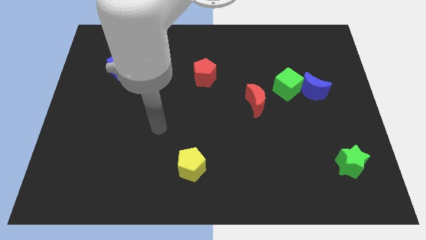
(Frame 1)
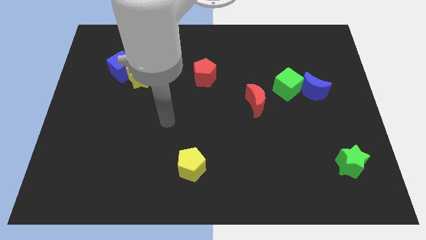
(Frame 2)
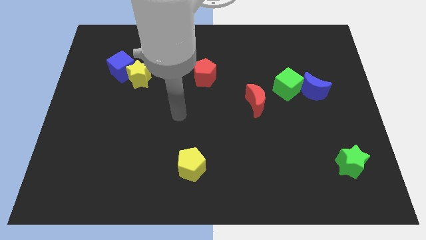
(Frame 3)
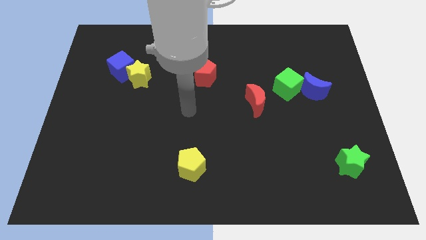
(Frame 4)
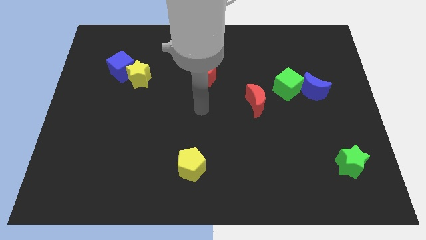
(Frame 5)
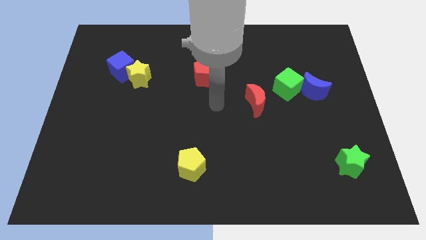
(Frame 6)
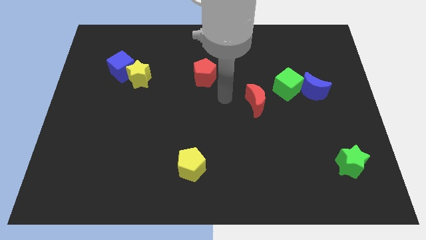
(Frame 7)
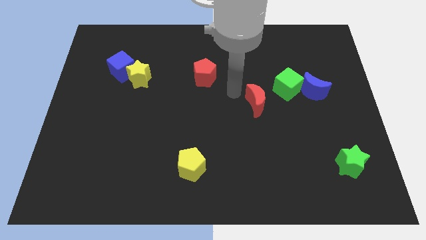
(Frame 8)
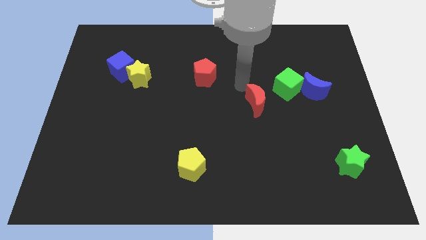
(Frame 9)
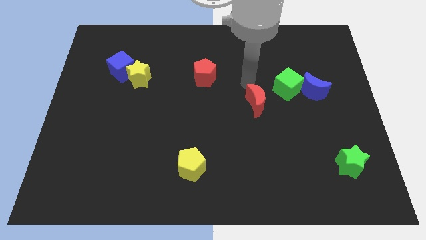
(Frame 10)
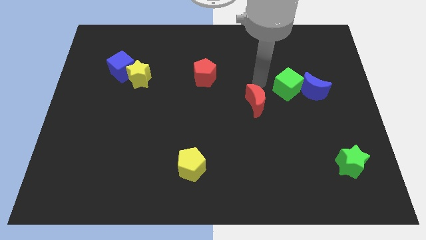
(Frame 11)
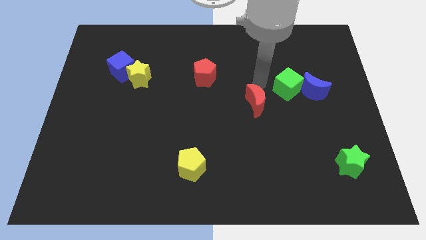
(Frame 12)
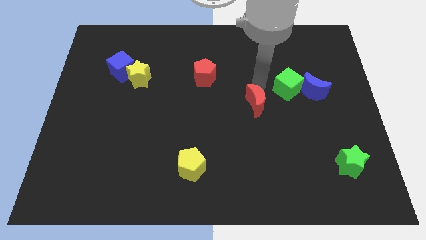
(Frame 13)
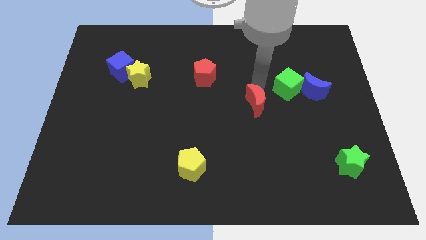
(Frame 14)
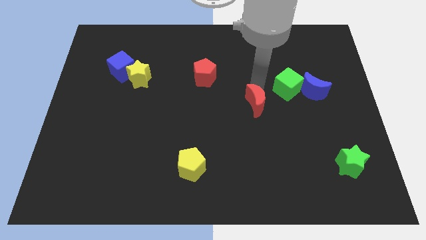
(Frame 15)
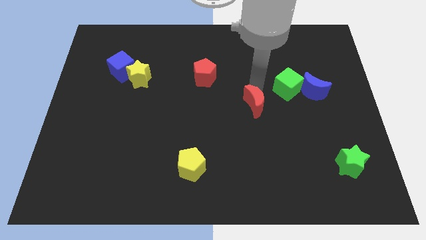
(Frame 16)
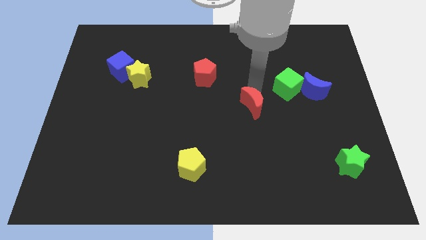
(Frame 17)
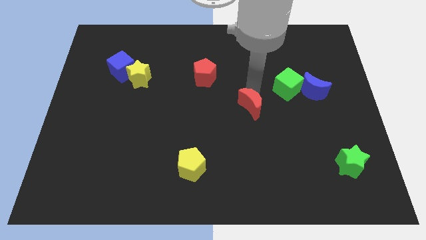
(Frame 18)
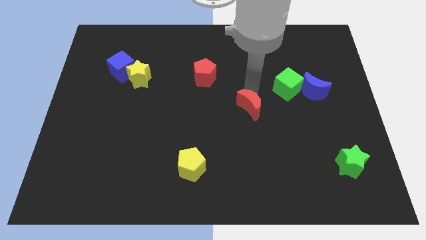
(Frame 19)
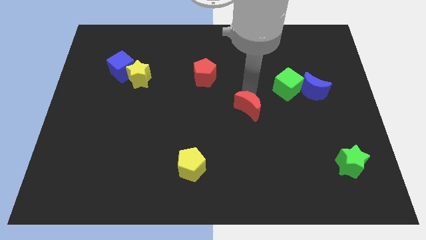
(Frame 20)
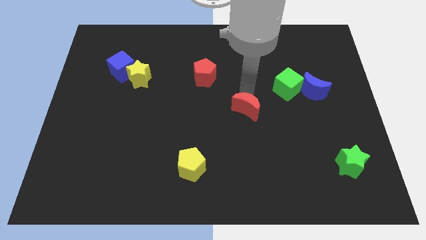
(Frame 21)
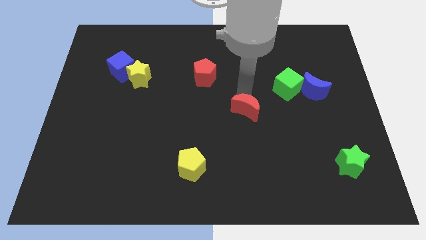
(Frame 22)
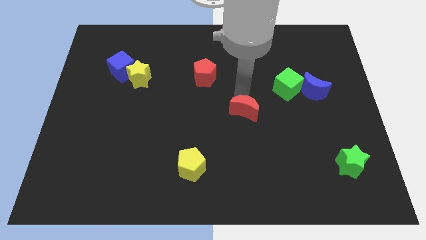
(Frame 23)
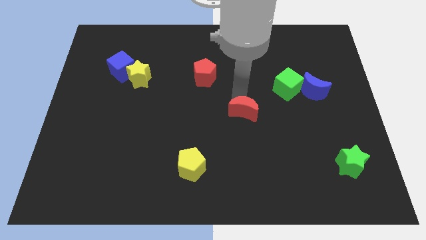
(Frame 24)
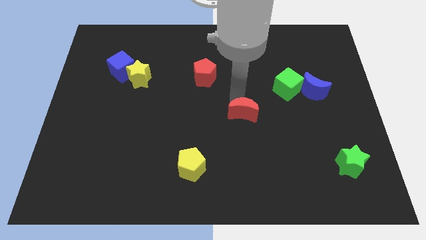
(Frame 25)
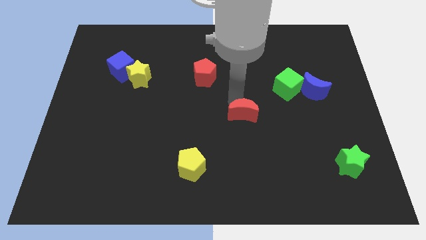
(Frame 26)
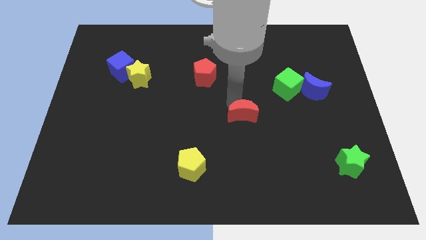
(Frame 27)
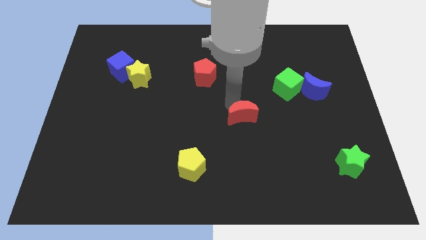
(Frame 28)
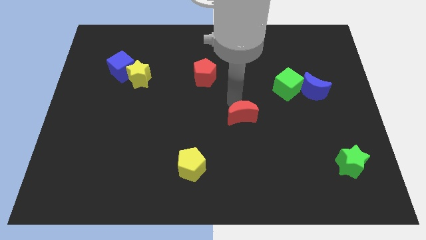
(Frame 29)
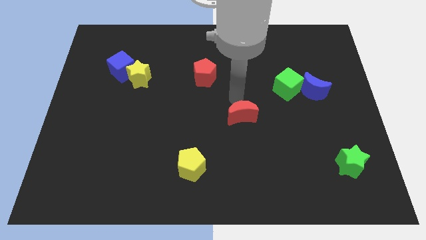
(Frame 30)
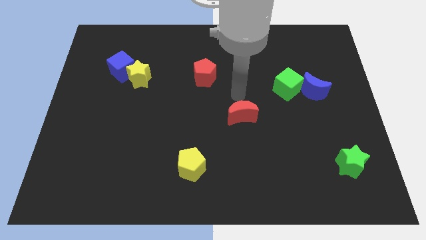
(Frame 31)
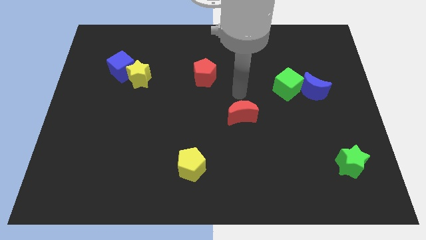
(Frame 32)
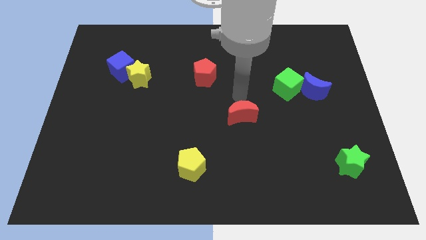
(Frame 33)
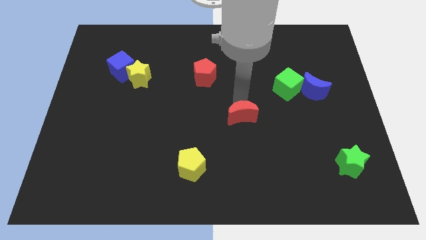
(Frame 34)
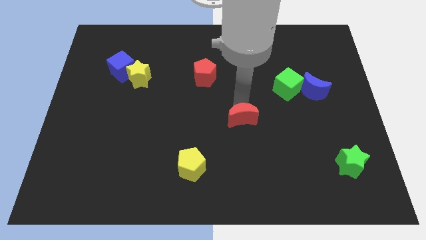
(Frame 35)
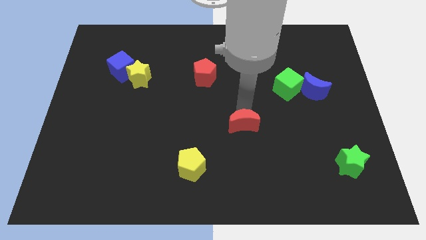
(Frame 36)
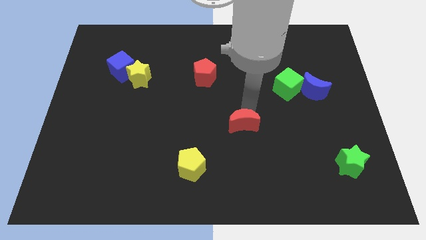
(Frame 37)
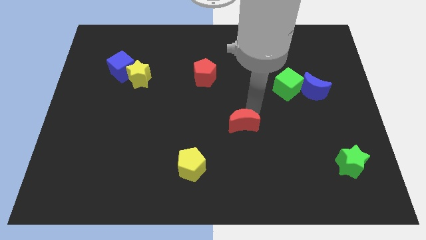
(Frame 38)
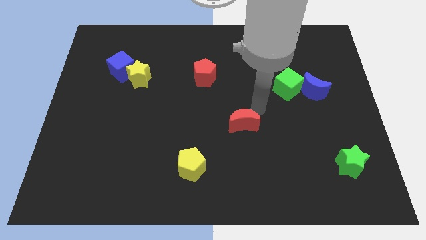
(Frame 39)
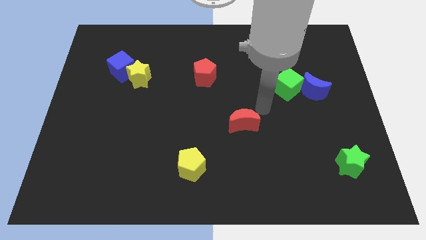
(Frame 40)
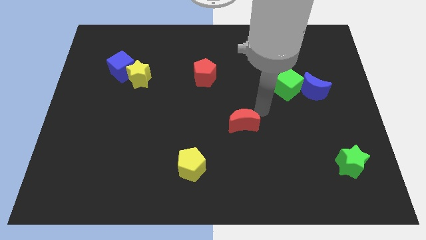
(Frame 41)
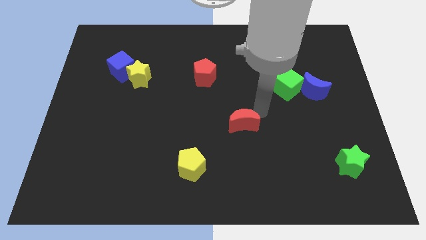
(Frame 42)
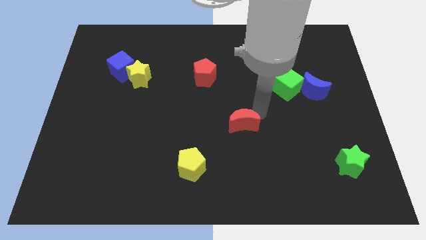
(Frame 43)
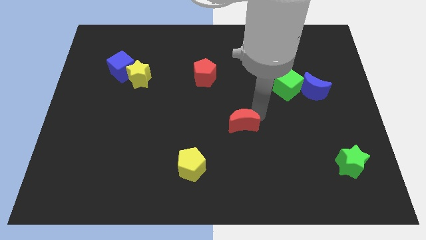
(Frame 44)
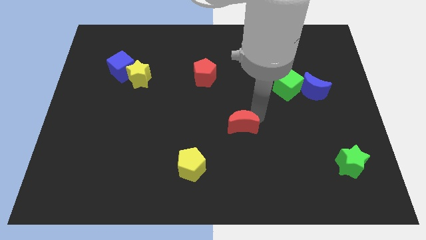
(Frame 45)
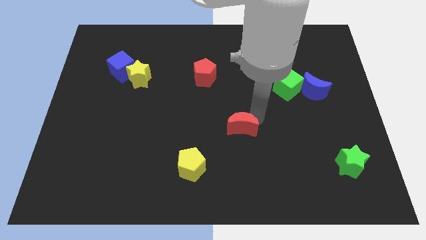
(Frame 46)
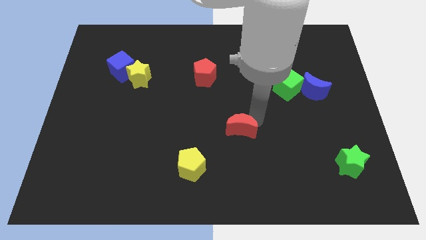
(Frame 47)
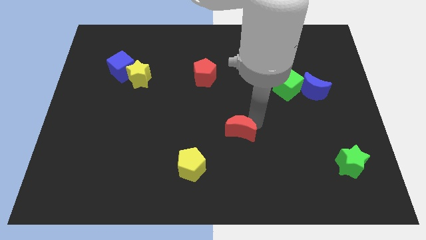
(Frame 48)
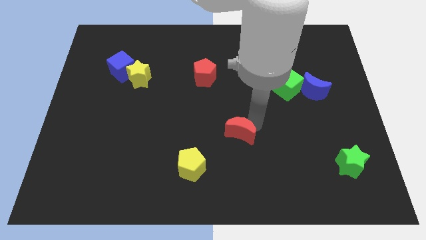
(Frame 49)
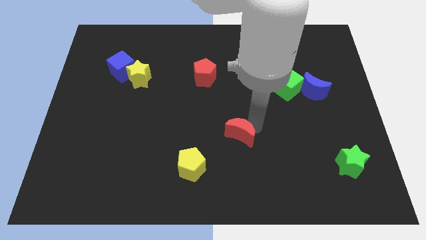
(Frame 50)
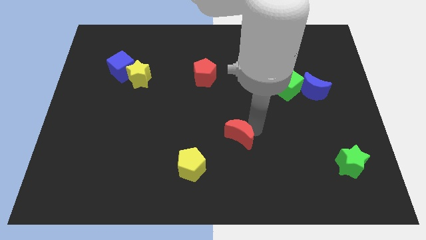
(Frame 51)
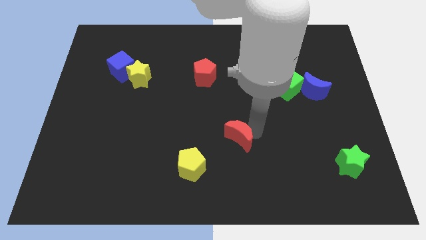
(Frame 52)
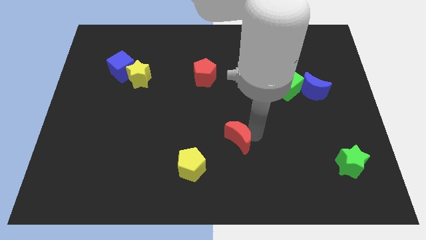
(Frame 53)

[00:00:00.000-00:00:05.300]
push the red moon to the top right of the yellow pentagon

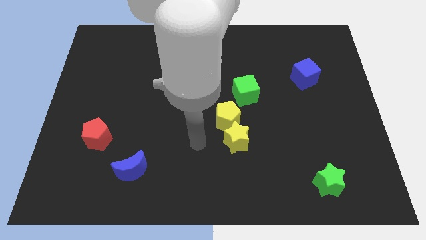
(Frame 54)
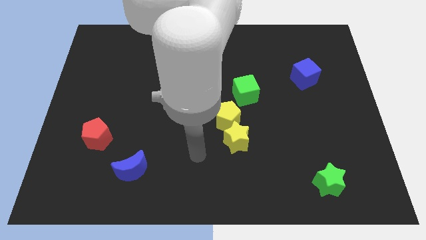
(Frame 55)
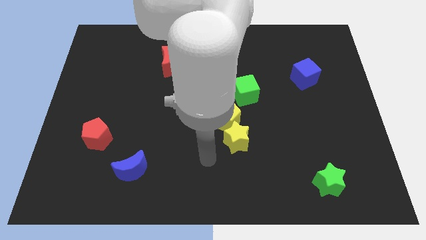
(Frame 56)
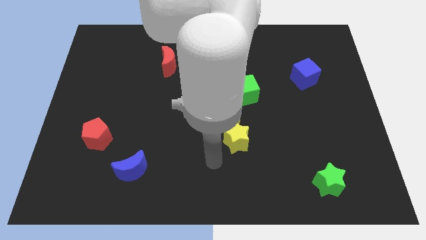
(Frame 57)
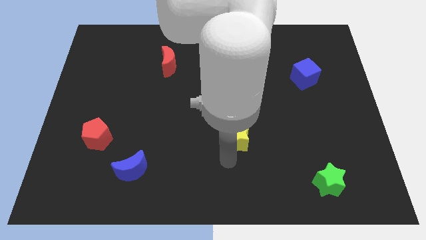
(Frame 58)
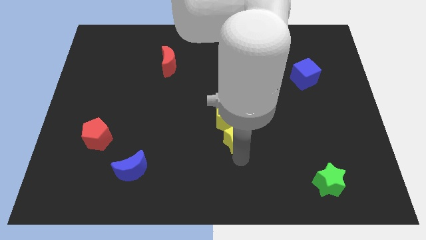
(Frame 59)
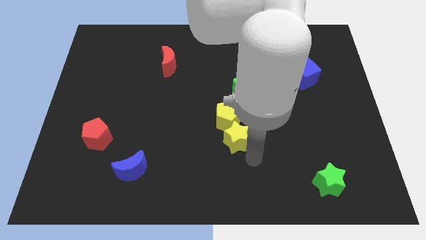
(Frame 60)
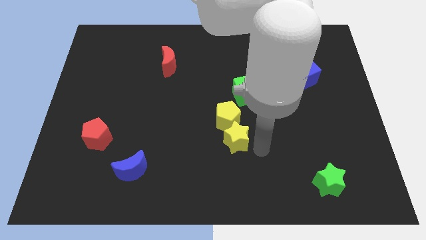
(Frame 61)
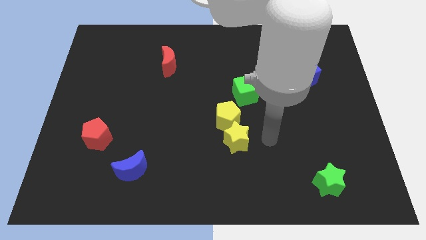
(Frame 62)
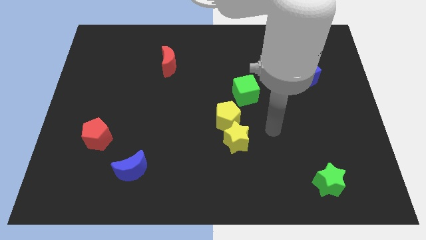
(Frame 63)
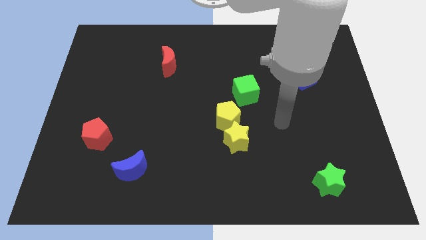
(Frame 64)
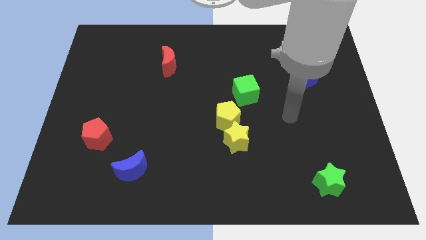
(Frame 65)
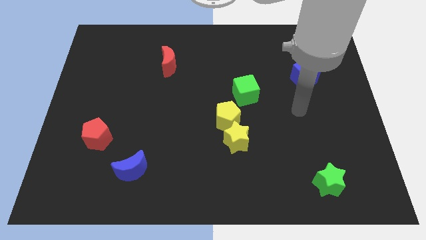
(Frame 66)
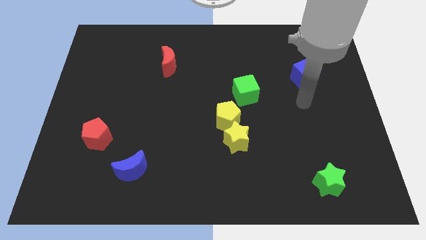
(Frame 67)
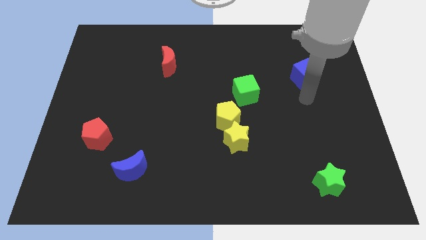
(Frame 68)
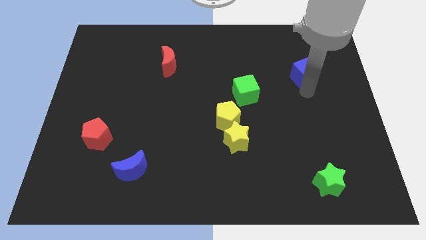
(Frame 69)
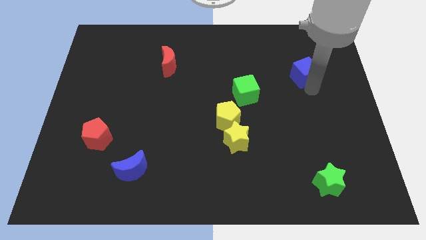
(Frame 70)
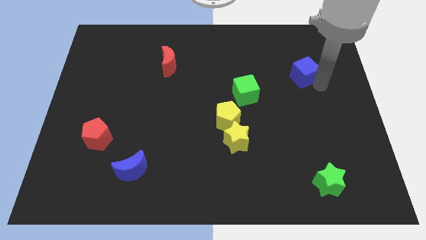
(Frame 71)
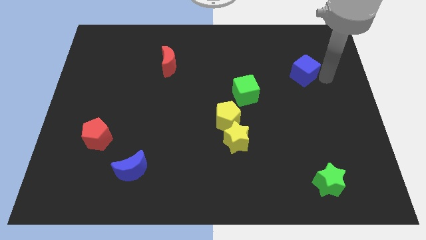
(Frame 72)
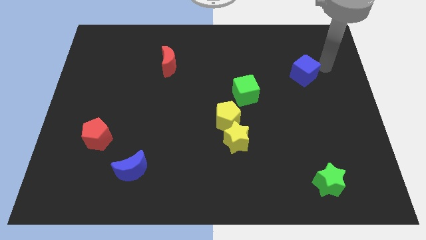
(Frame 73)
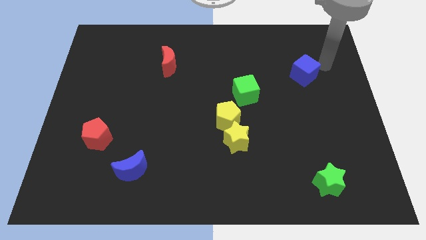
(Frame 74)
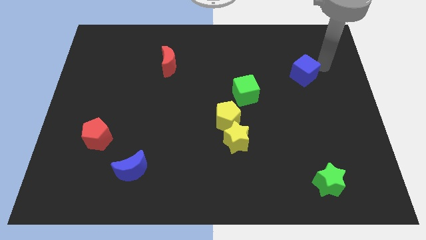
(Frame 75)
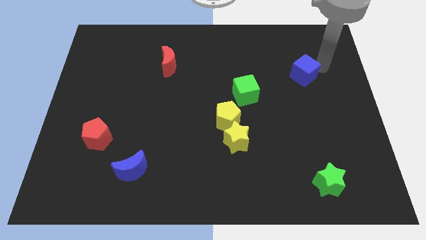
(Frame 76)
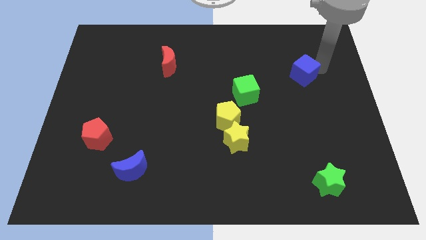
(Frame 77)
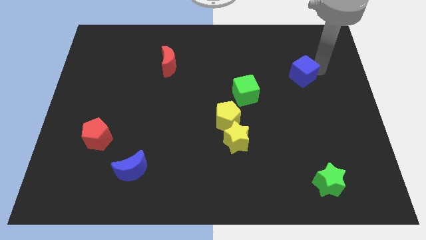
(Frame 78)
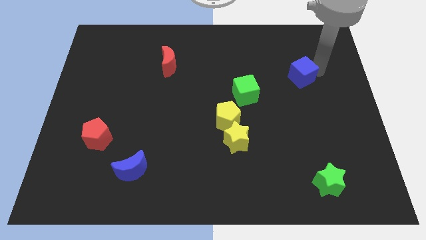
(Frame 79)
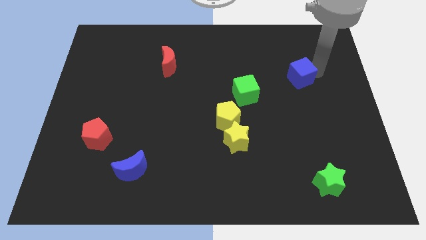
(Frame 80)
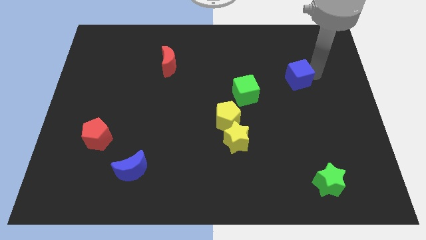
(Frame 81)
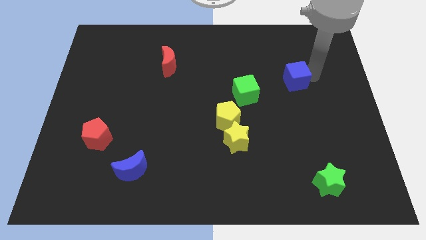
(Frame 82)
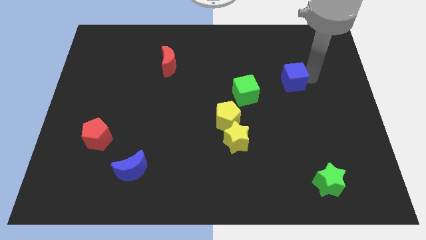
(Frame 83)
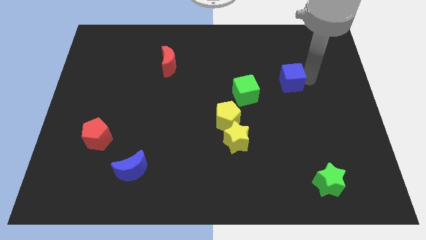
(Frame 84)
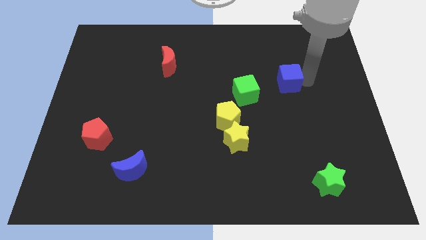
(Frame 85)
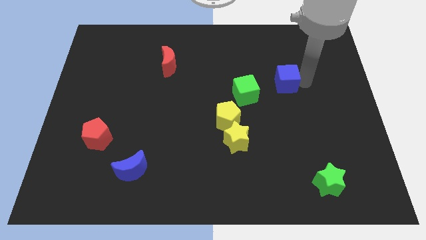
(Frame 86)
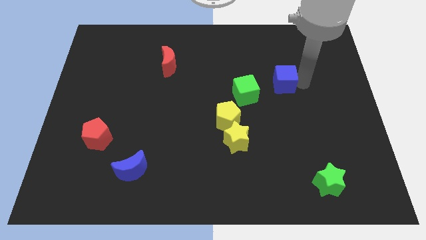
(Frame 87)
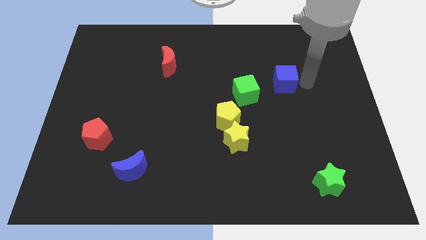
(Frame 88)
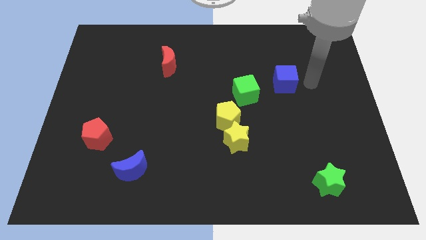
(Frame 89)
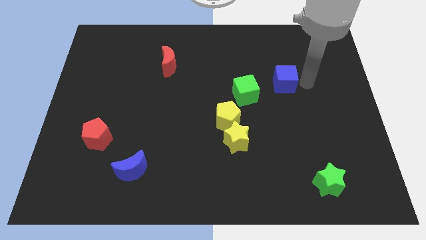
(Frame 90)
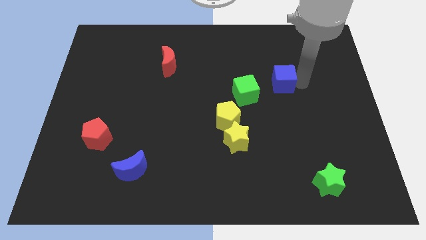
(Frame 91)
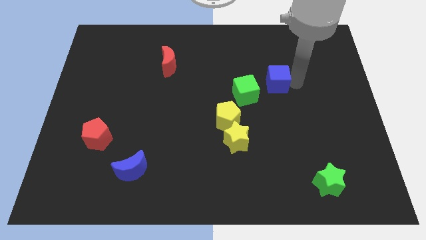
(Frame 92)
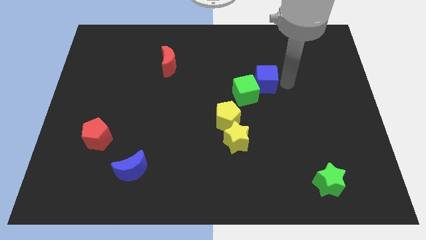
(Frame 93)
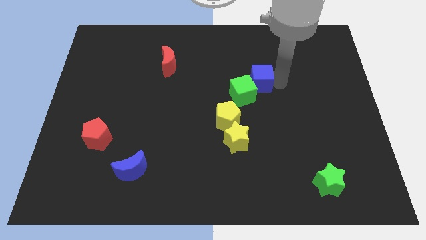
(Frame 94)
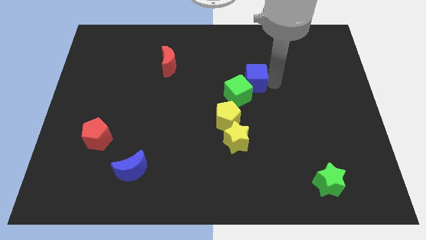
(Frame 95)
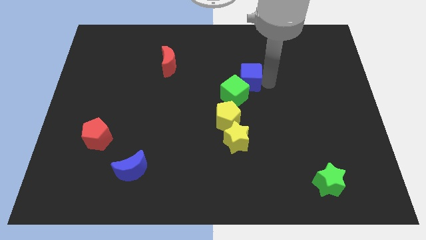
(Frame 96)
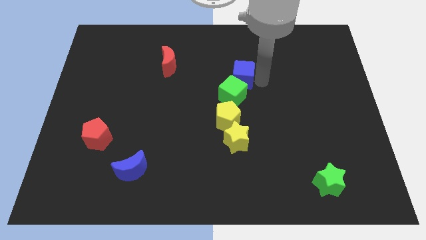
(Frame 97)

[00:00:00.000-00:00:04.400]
put the blue cube to the top of the yellow pentagon
